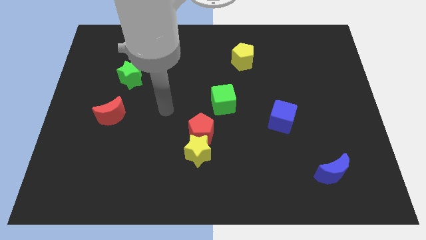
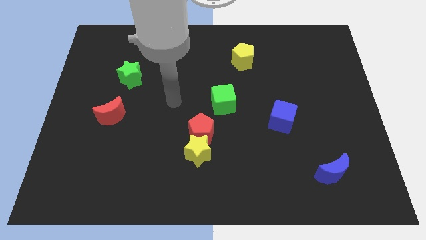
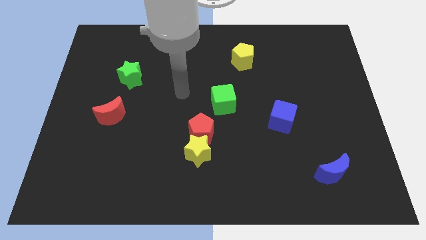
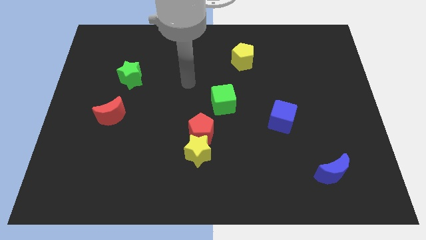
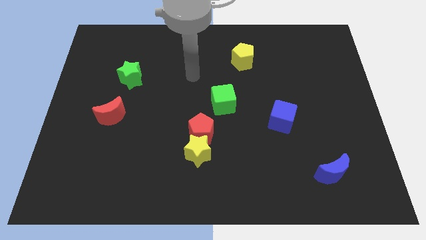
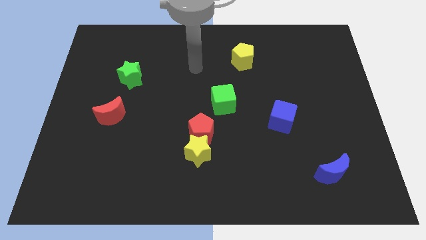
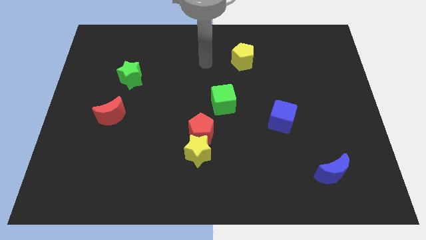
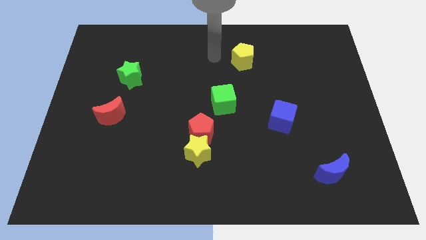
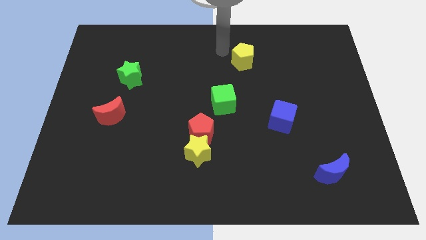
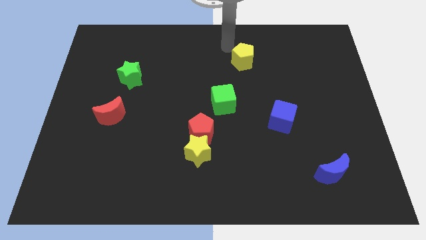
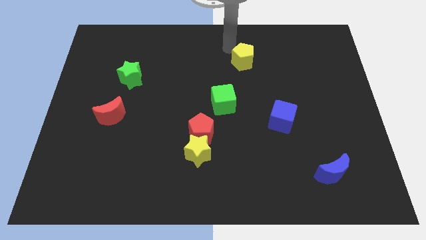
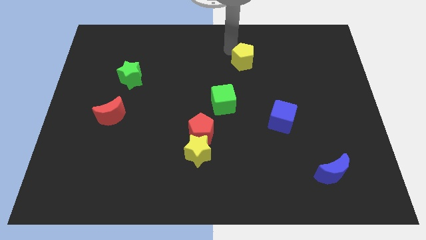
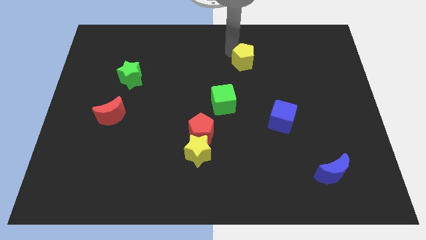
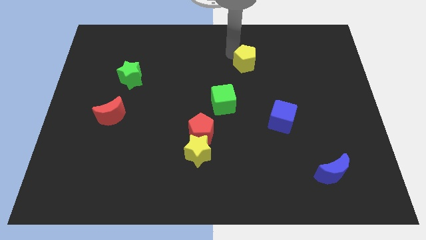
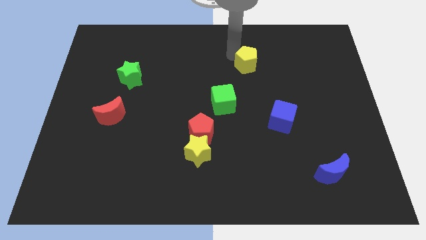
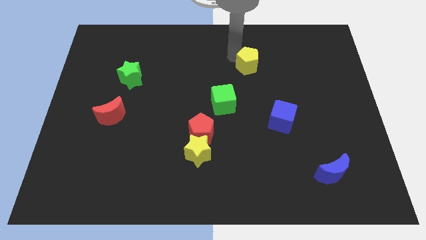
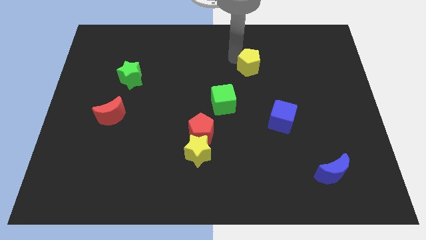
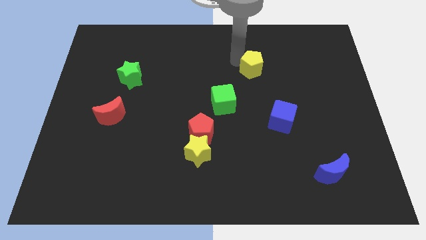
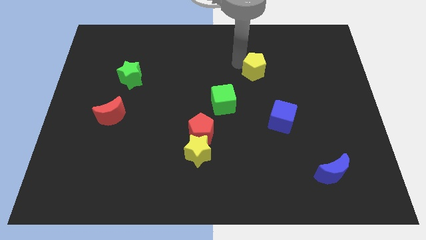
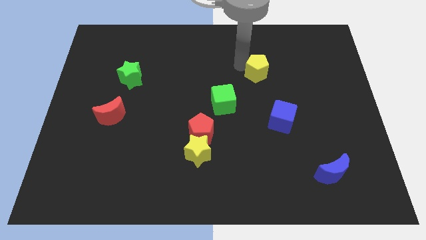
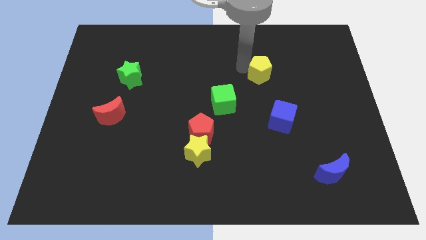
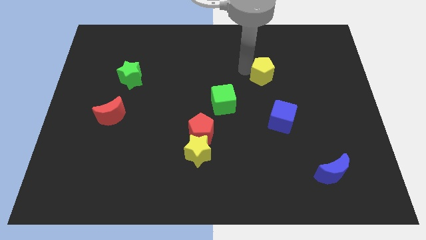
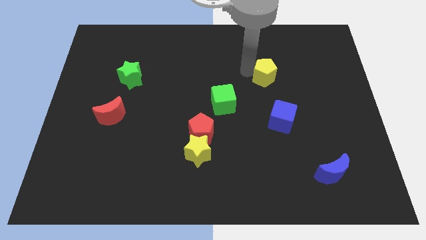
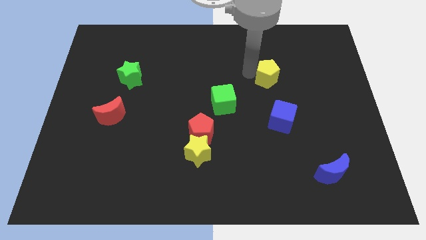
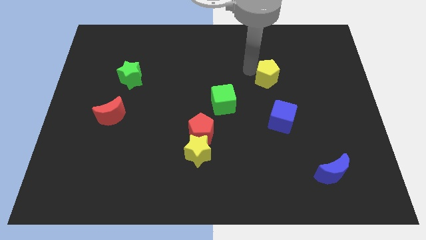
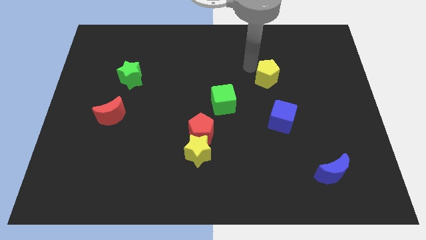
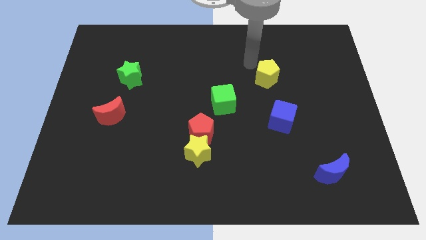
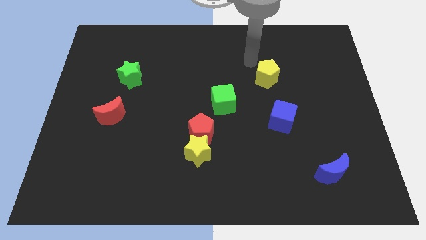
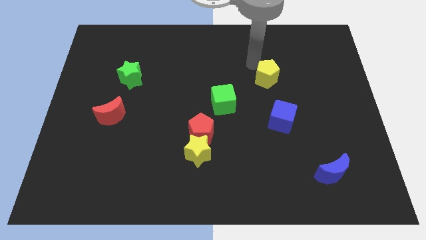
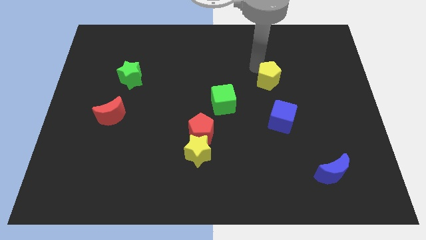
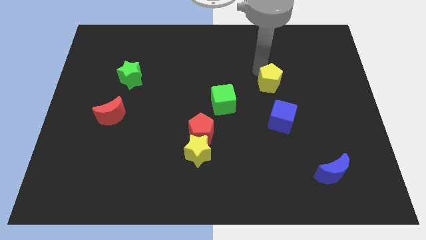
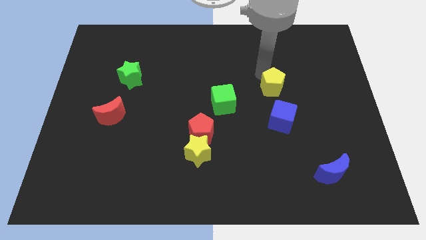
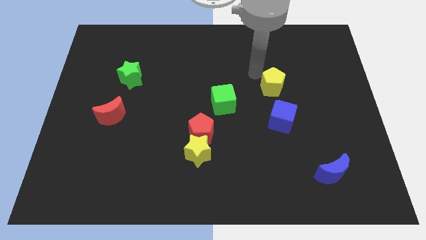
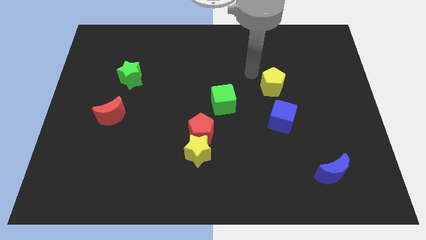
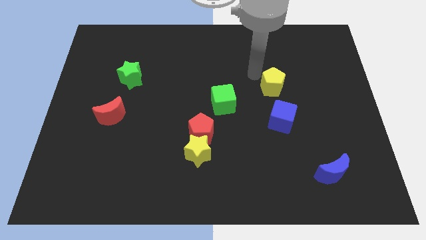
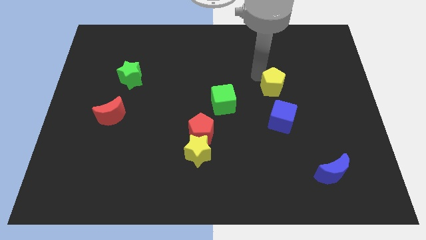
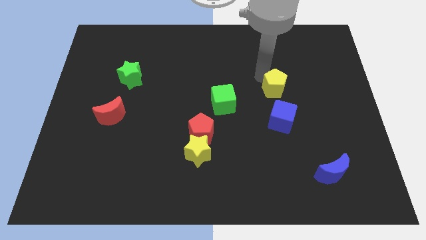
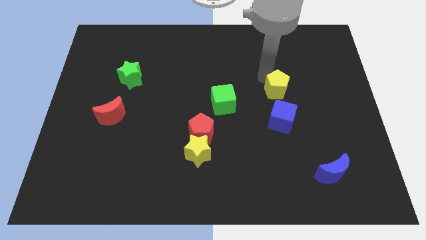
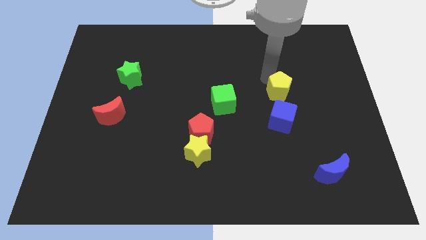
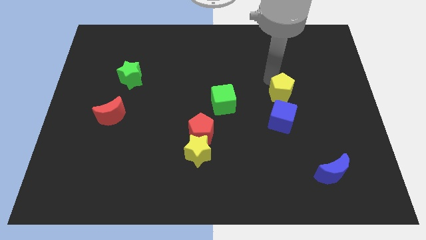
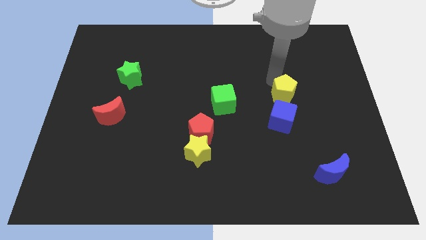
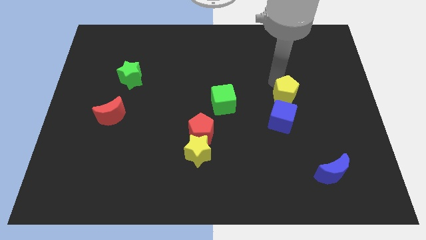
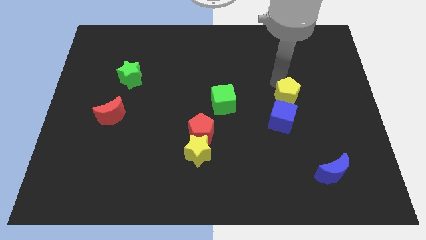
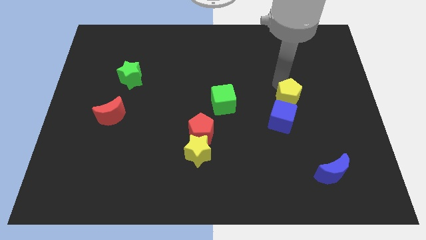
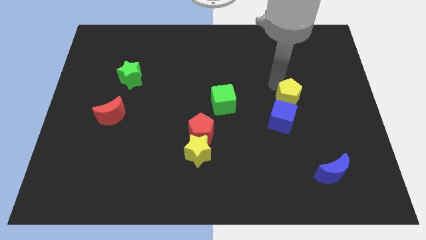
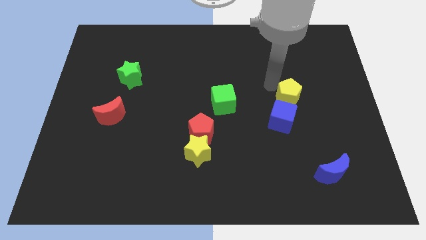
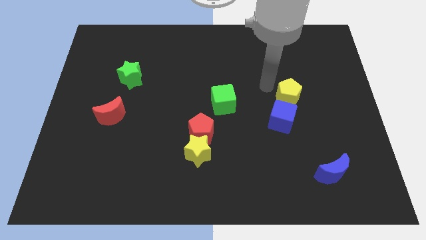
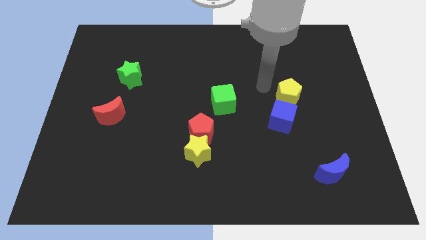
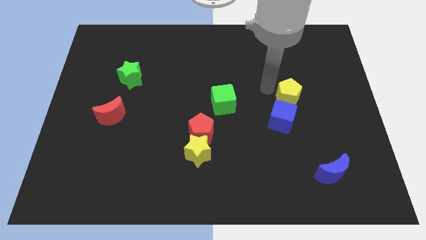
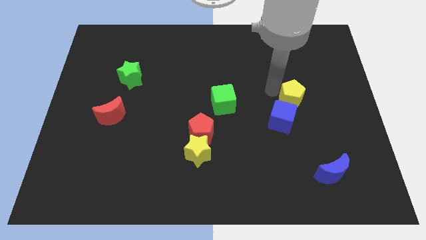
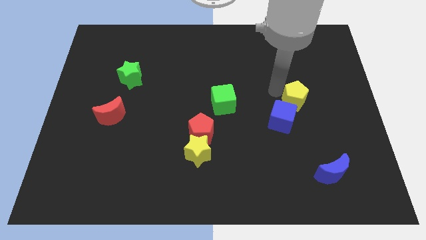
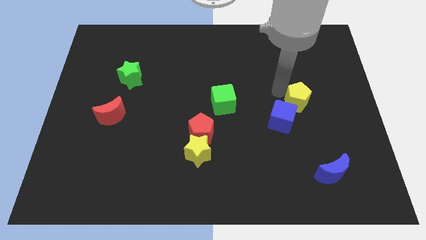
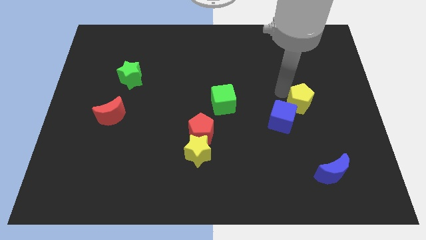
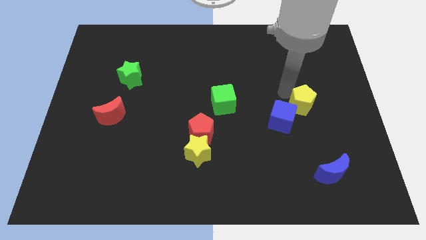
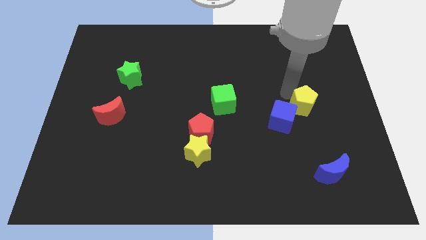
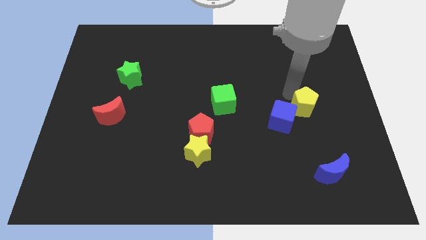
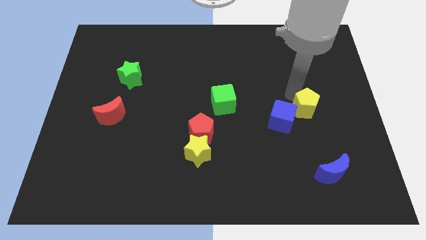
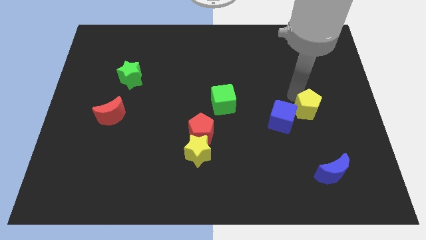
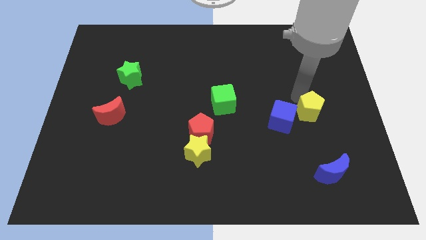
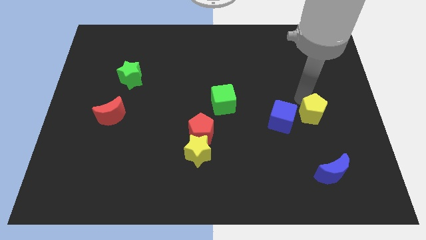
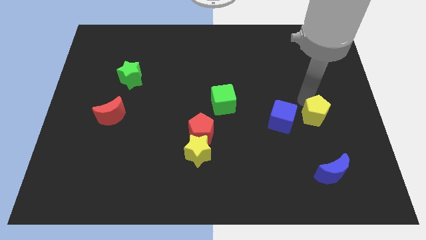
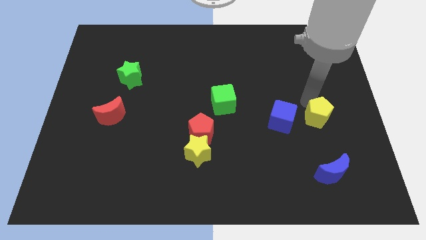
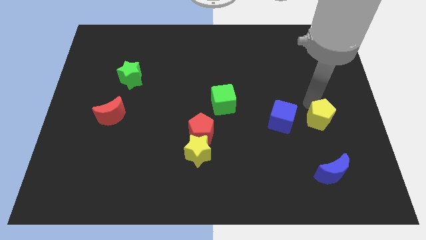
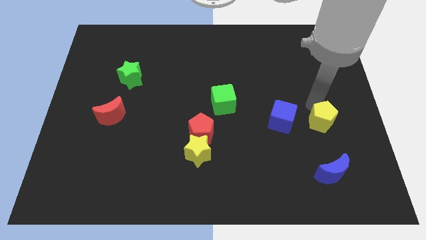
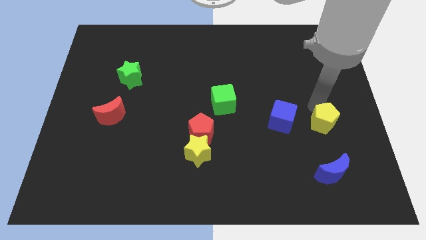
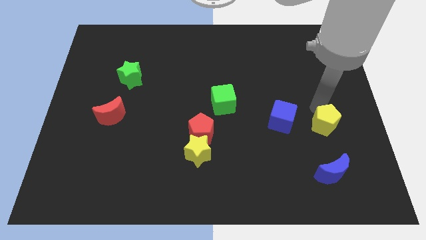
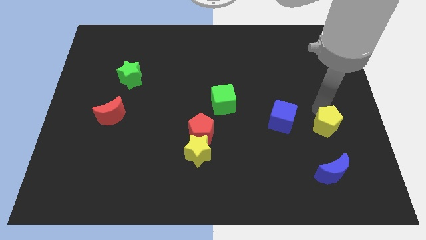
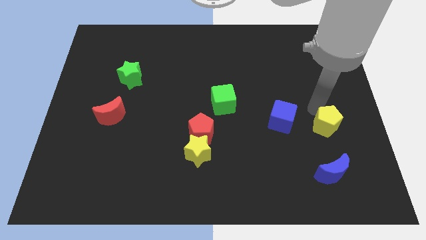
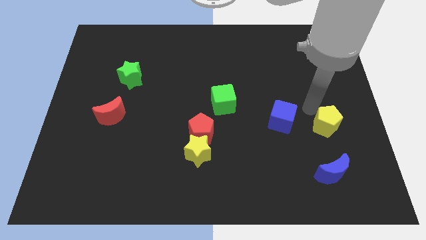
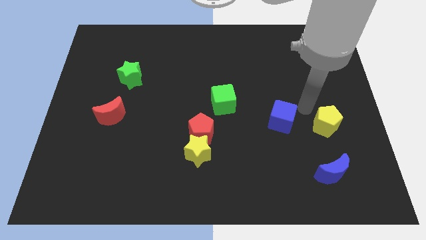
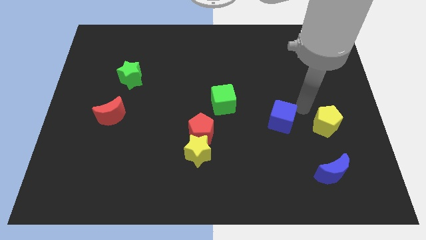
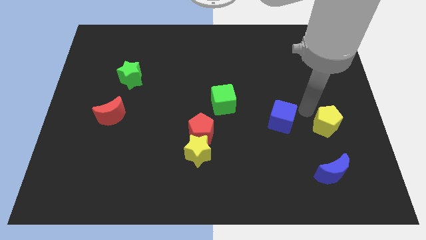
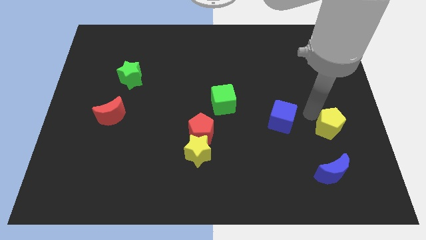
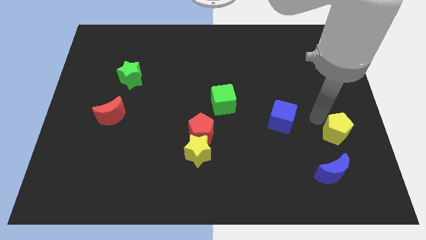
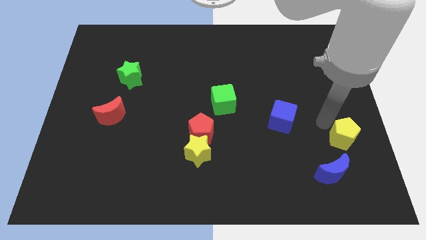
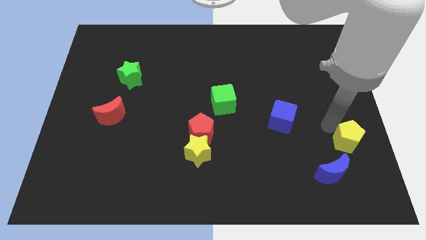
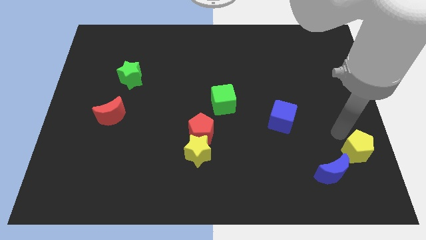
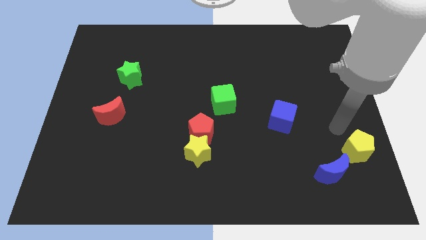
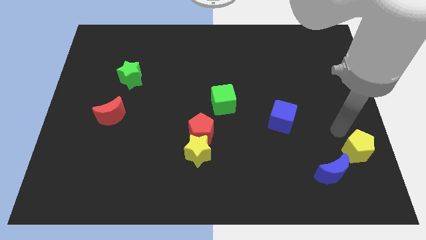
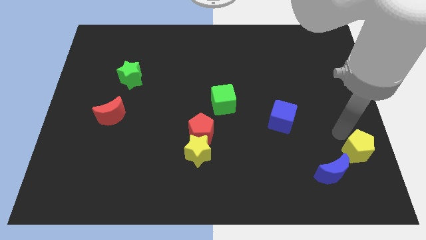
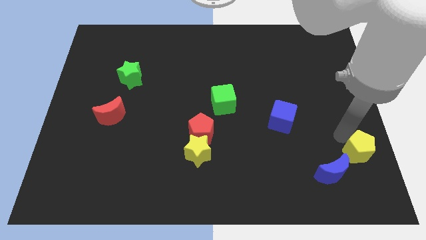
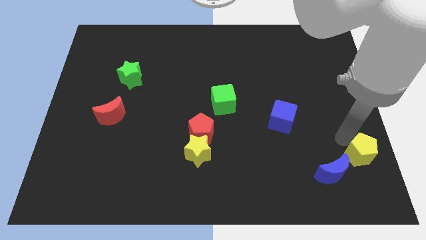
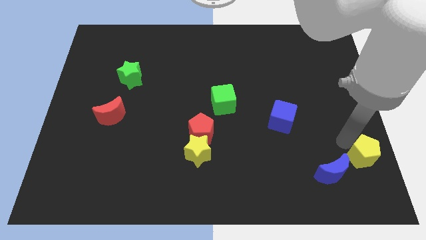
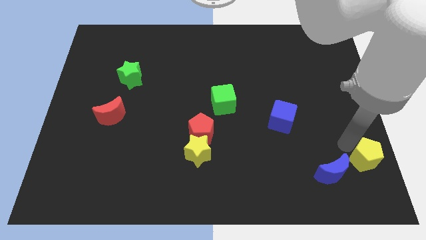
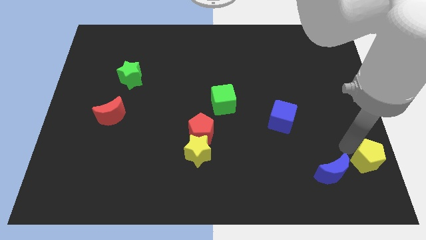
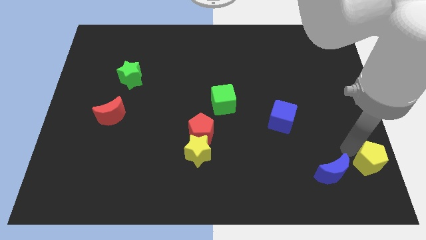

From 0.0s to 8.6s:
move the yellow pentagon to the lower right corner
